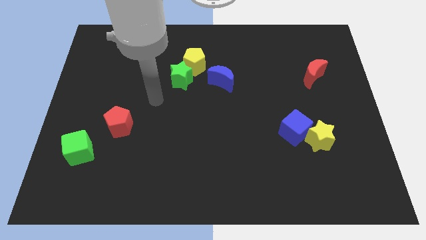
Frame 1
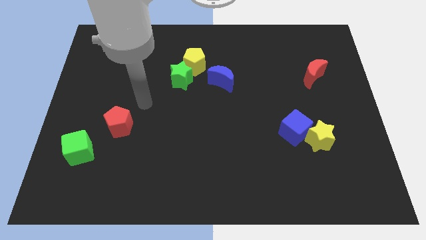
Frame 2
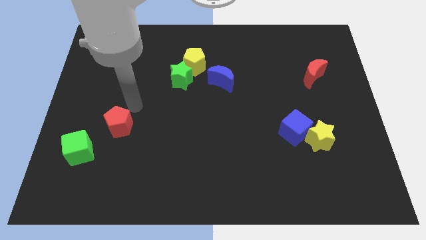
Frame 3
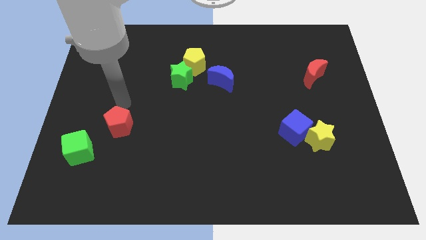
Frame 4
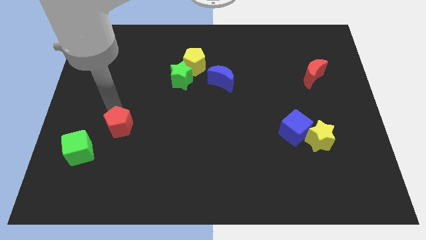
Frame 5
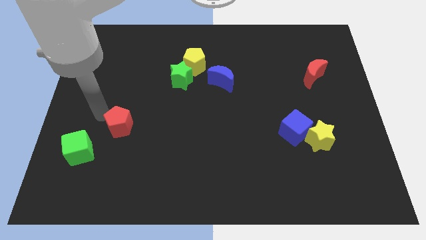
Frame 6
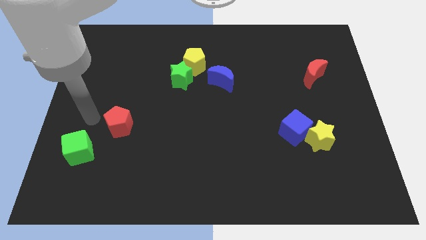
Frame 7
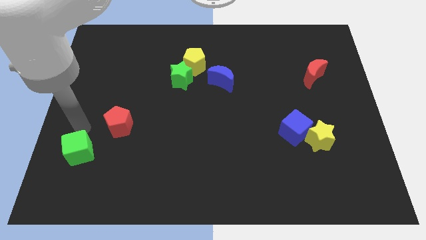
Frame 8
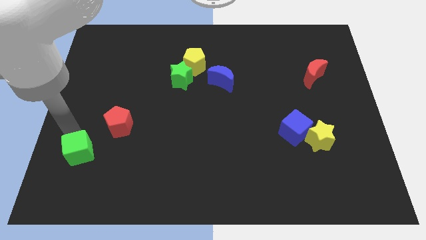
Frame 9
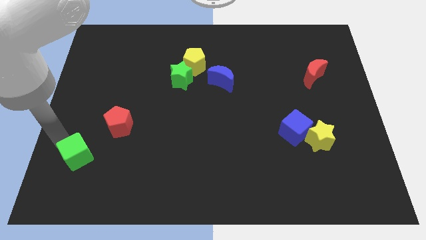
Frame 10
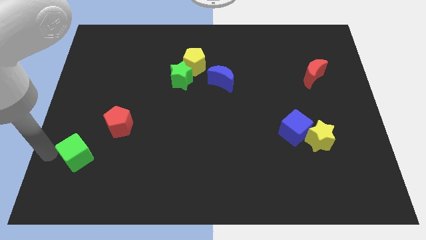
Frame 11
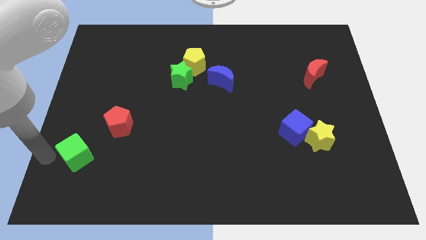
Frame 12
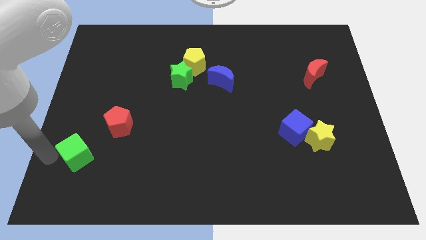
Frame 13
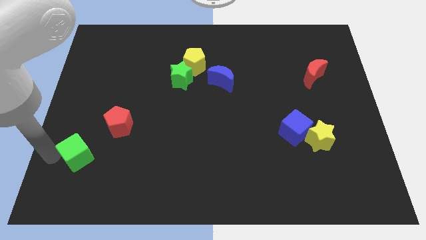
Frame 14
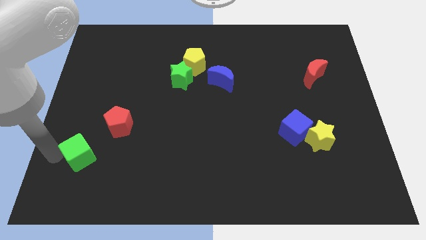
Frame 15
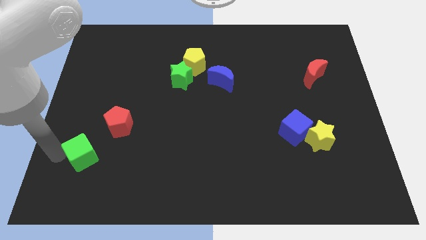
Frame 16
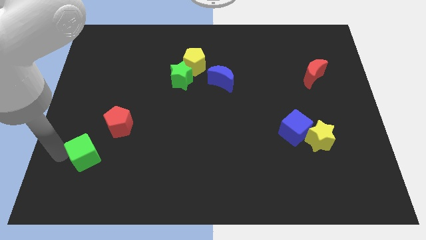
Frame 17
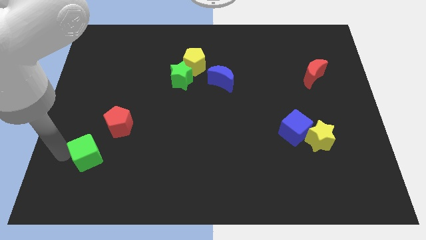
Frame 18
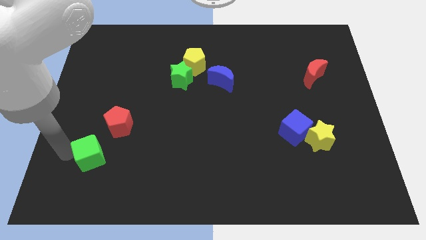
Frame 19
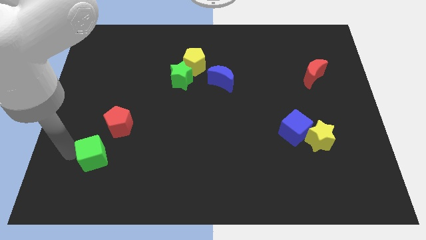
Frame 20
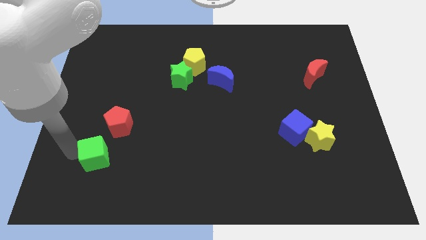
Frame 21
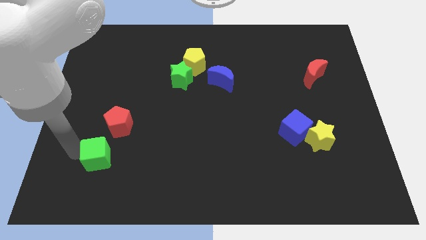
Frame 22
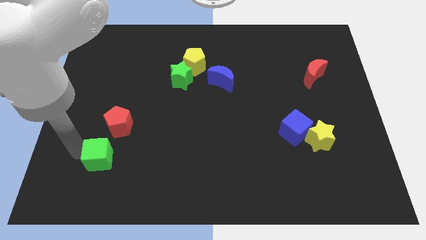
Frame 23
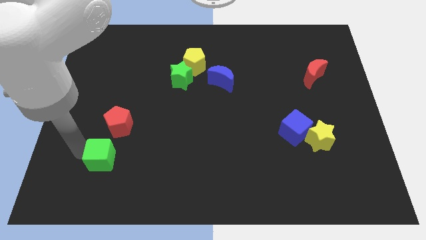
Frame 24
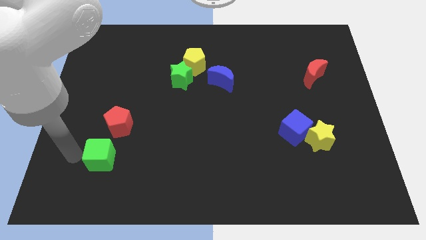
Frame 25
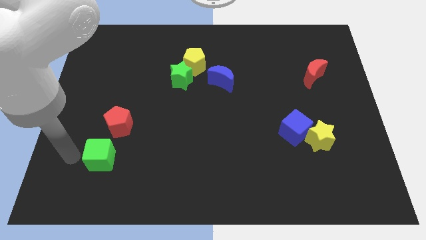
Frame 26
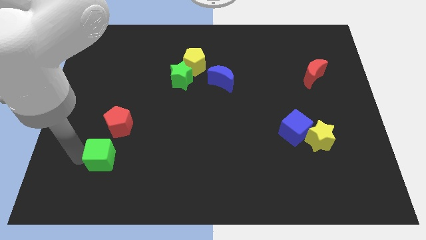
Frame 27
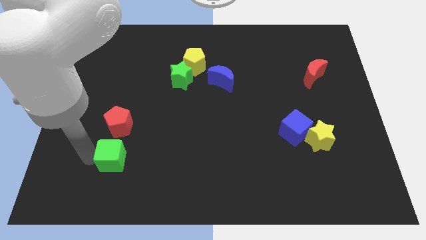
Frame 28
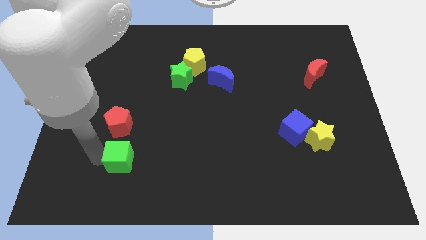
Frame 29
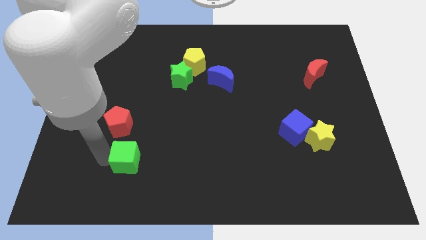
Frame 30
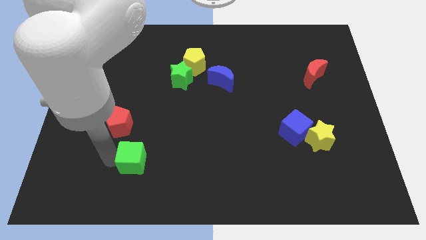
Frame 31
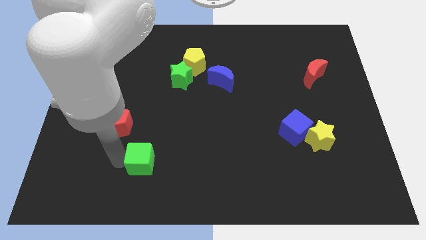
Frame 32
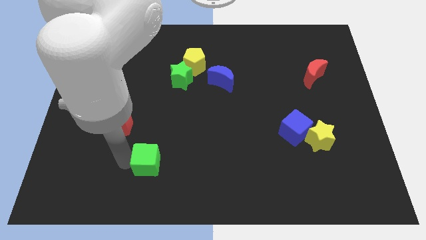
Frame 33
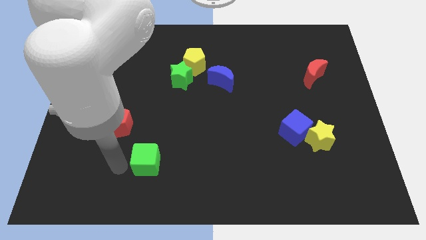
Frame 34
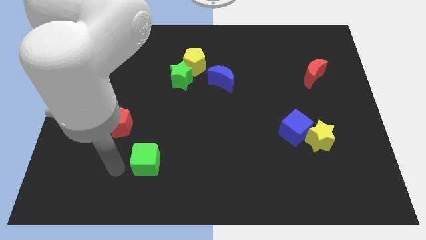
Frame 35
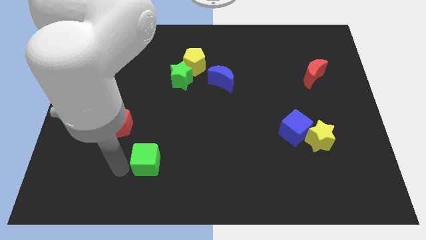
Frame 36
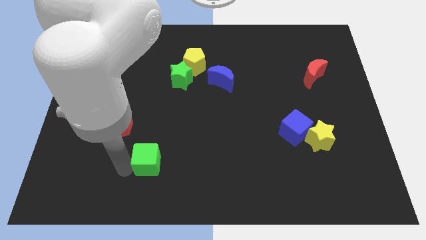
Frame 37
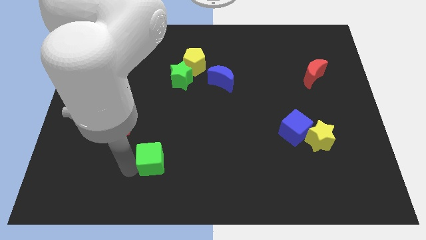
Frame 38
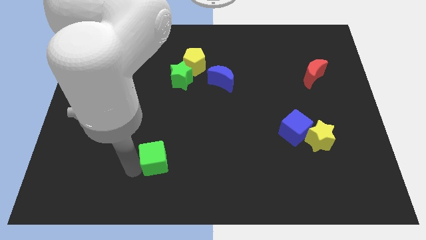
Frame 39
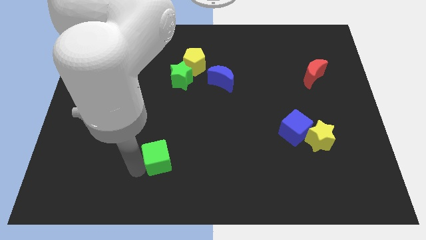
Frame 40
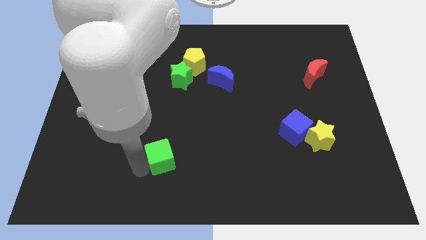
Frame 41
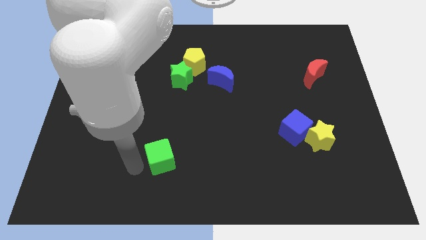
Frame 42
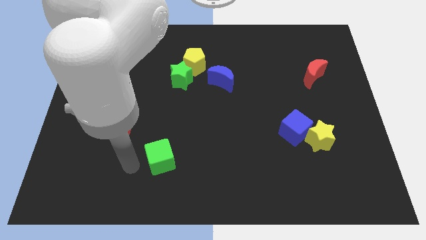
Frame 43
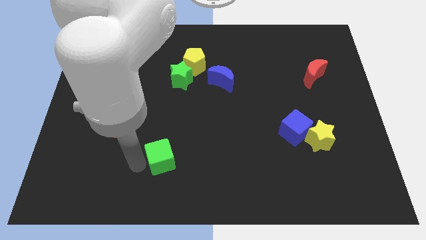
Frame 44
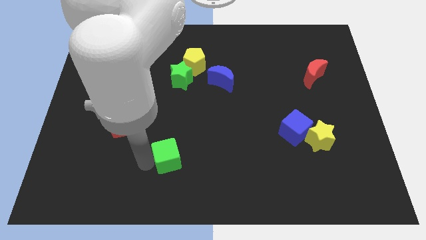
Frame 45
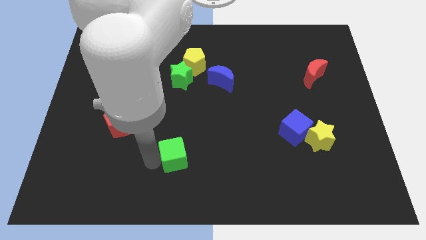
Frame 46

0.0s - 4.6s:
push the green cube right

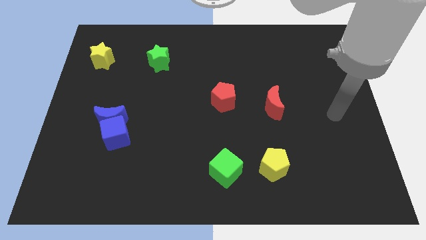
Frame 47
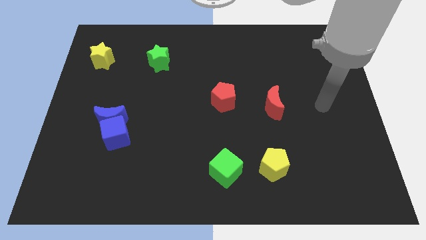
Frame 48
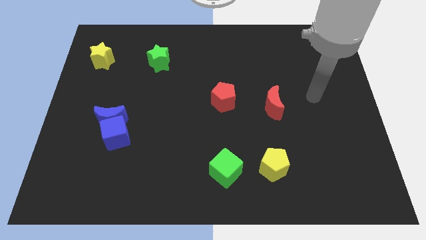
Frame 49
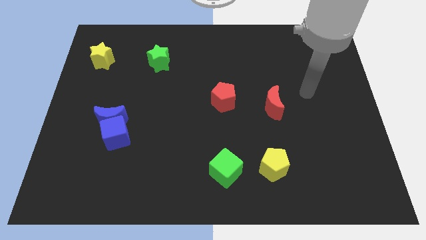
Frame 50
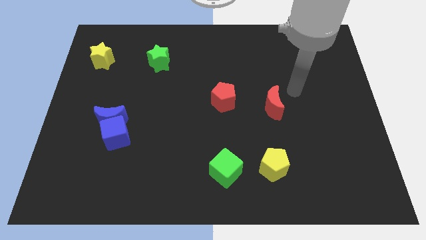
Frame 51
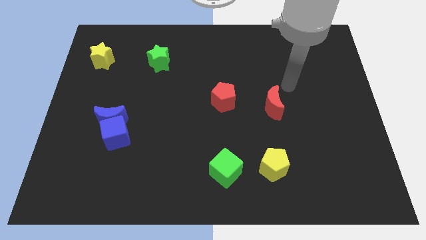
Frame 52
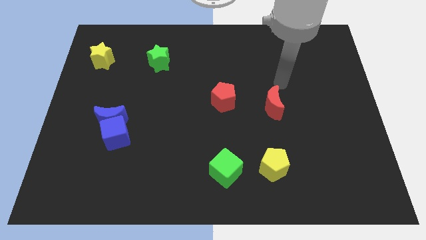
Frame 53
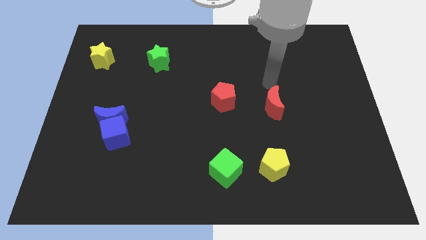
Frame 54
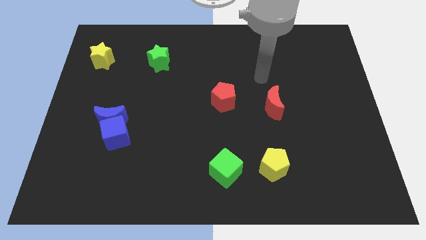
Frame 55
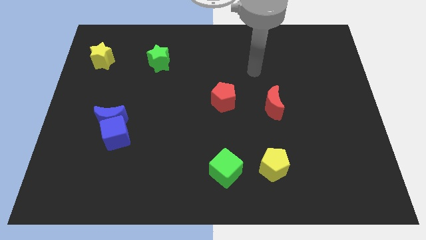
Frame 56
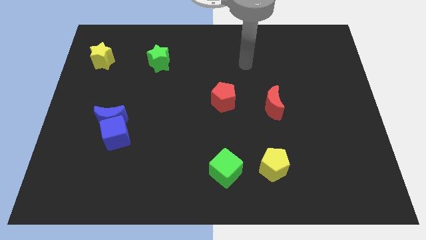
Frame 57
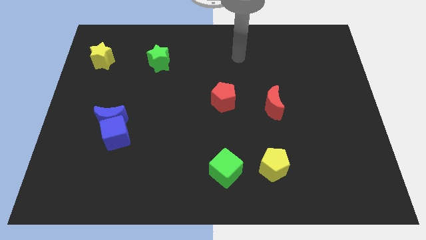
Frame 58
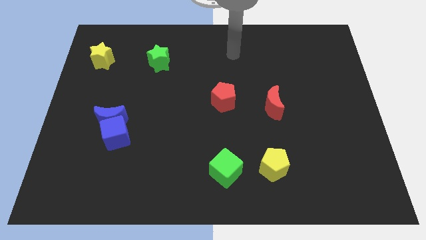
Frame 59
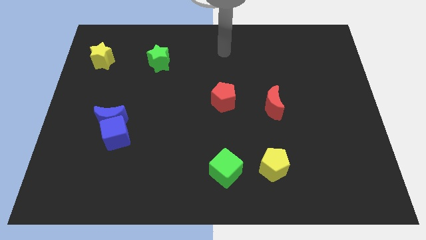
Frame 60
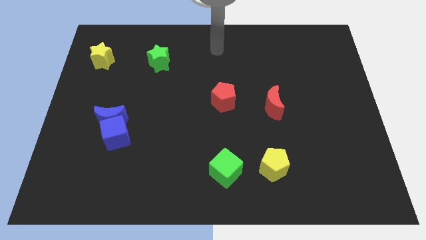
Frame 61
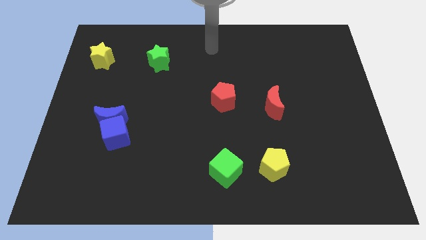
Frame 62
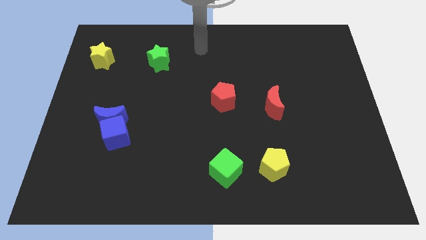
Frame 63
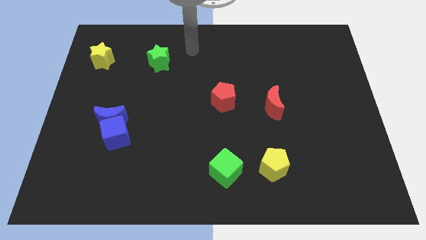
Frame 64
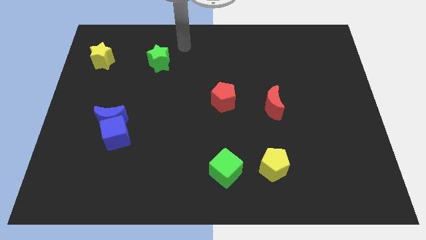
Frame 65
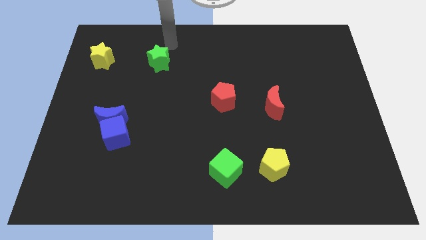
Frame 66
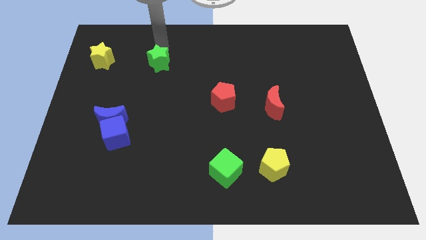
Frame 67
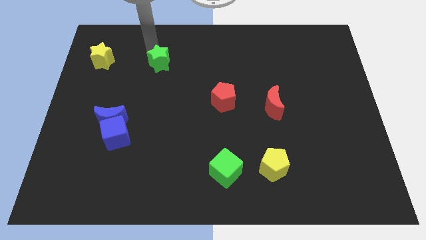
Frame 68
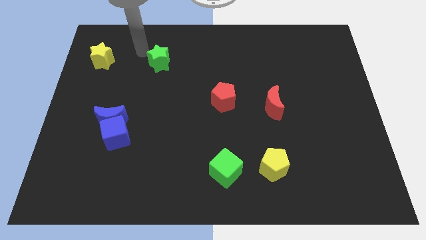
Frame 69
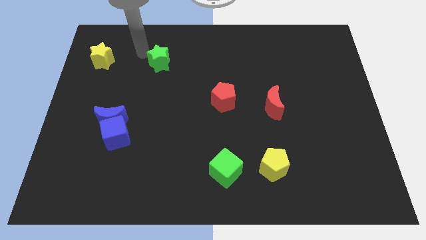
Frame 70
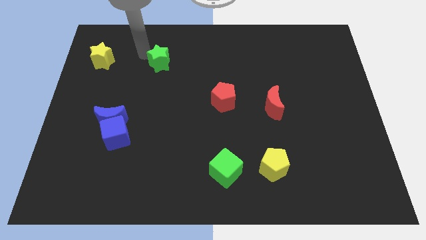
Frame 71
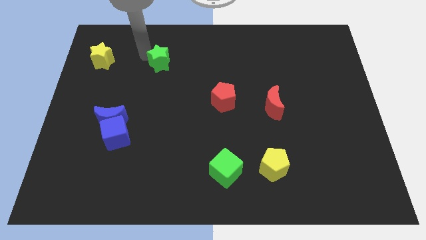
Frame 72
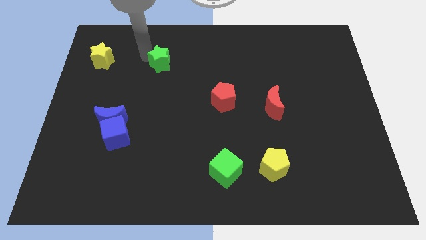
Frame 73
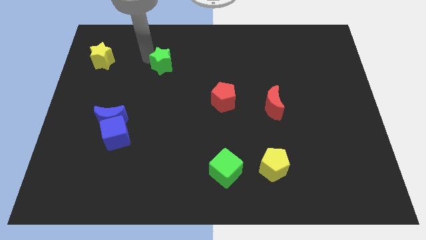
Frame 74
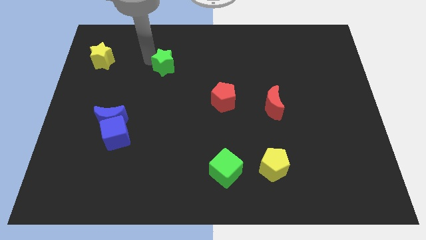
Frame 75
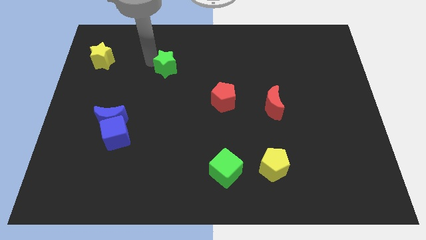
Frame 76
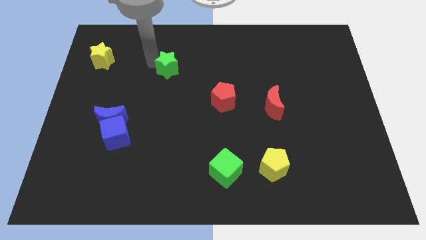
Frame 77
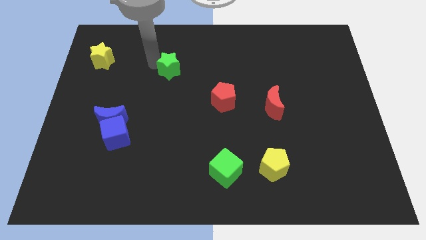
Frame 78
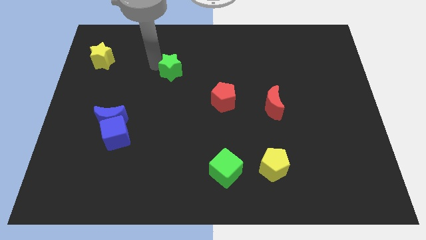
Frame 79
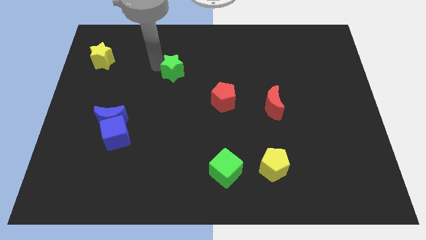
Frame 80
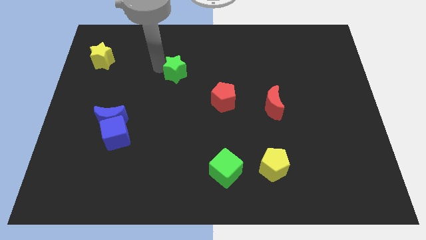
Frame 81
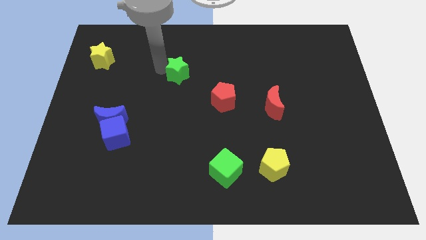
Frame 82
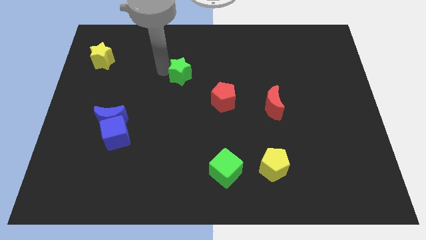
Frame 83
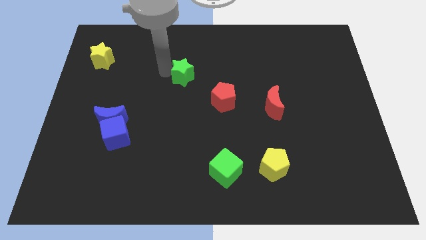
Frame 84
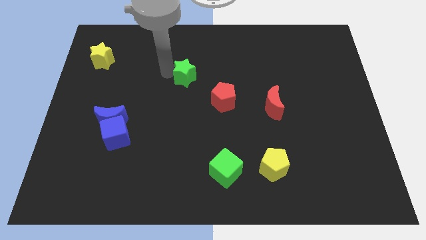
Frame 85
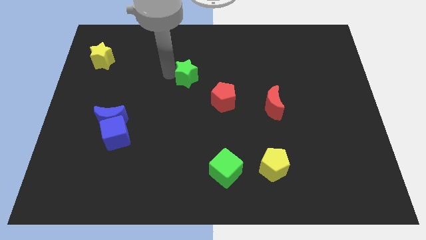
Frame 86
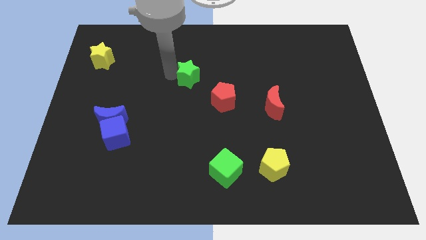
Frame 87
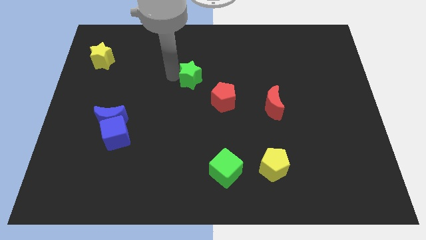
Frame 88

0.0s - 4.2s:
move the green star a little bit right
